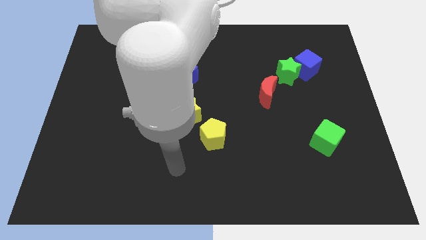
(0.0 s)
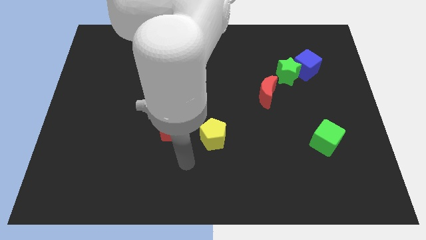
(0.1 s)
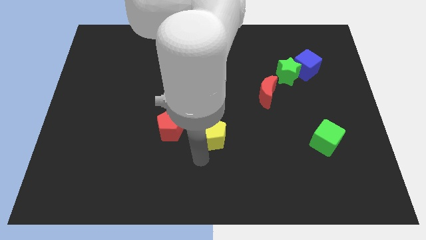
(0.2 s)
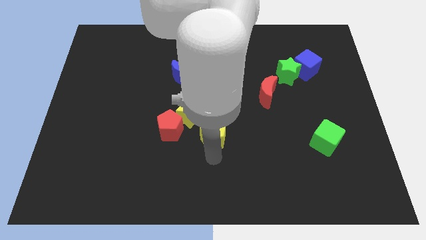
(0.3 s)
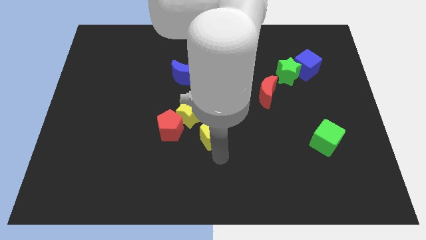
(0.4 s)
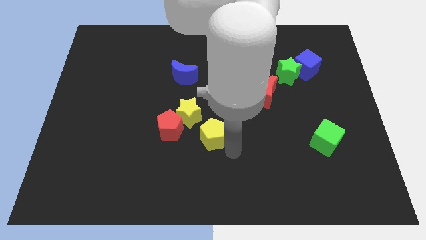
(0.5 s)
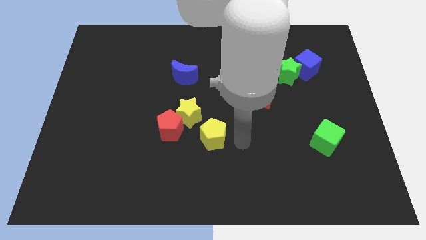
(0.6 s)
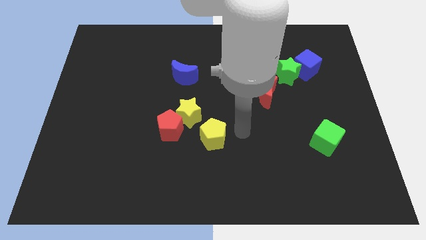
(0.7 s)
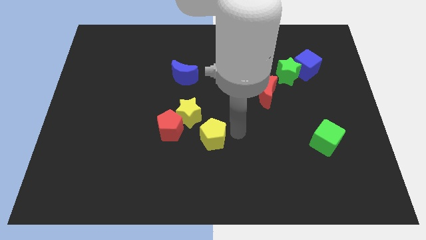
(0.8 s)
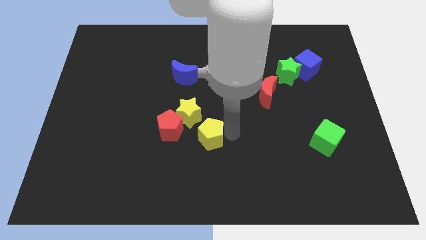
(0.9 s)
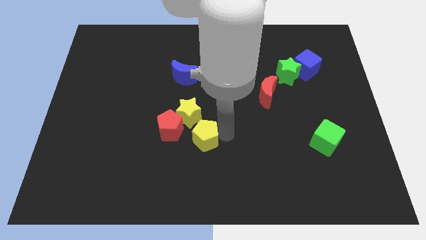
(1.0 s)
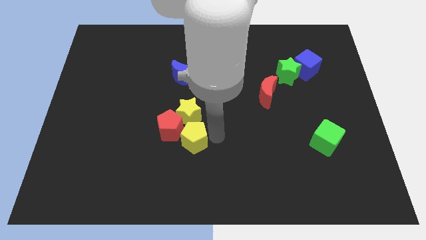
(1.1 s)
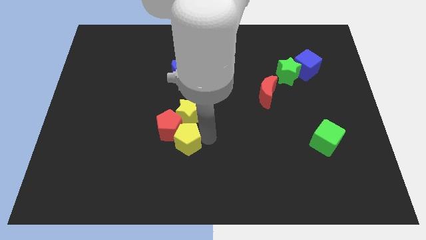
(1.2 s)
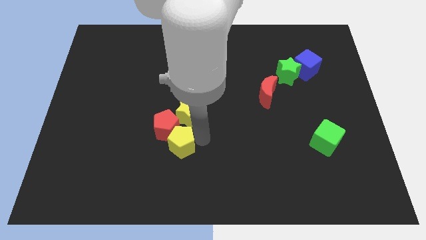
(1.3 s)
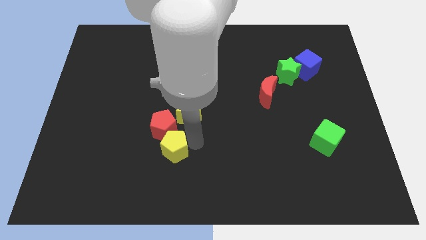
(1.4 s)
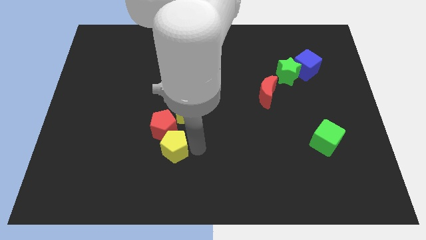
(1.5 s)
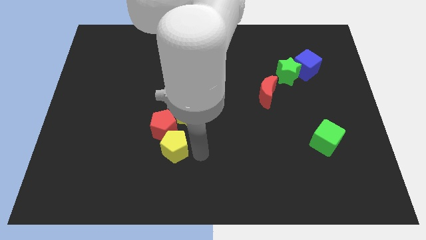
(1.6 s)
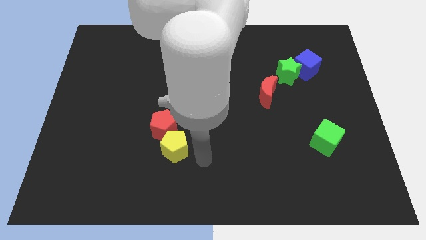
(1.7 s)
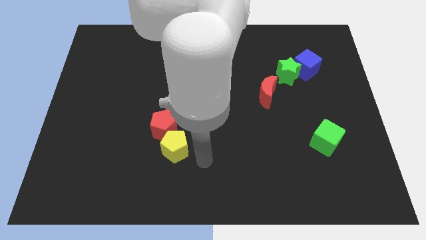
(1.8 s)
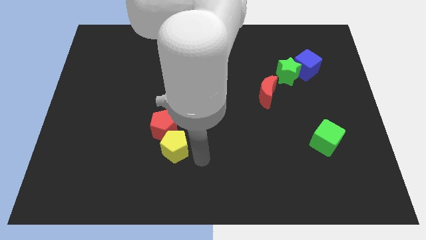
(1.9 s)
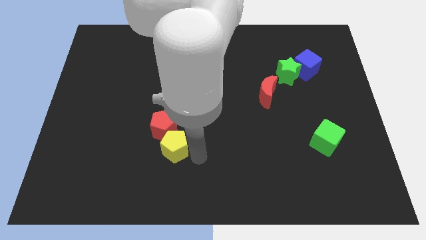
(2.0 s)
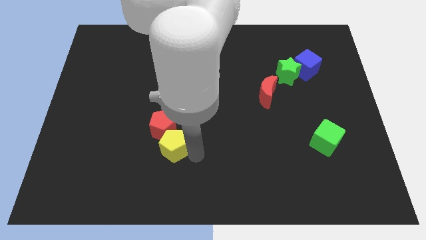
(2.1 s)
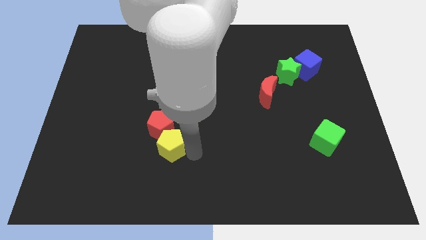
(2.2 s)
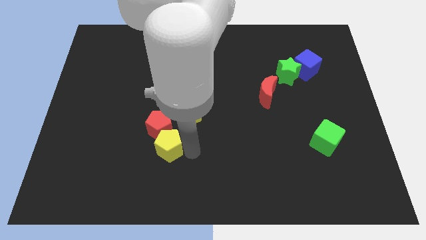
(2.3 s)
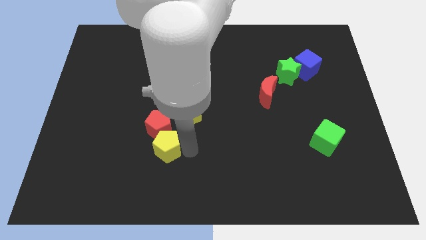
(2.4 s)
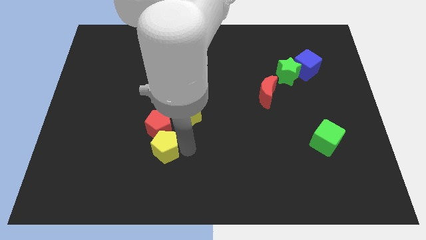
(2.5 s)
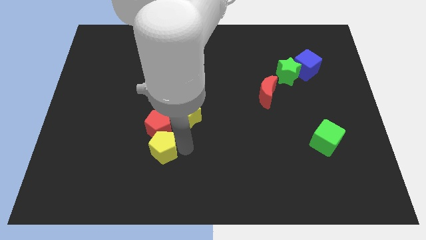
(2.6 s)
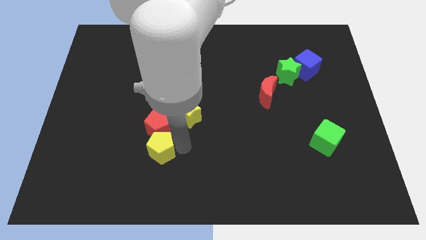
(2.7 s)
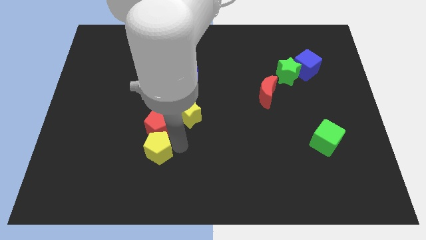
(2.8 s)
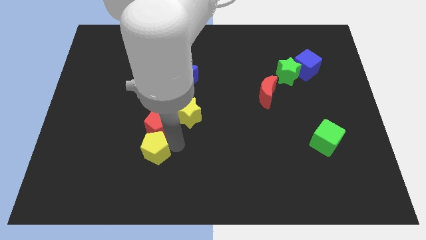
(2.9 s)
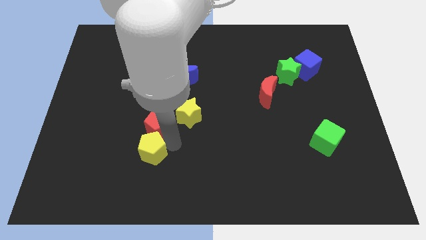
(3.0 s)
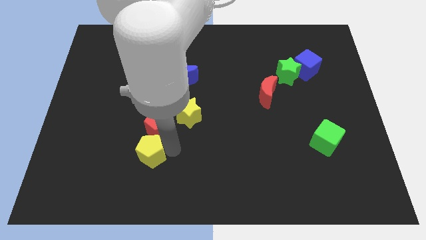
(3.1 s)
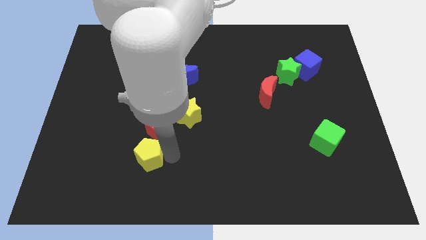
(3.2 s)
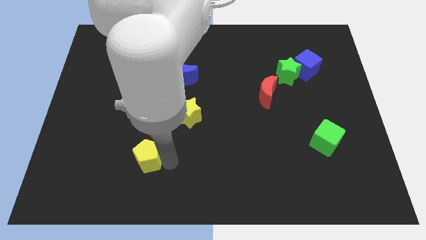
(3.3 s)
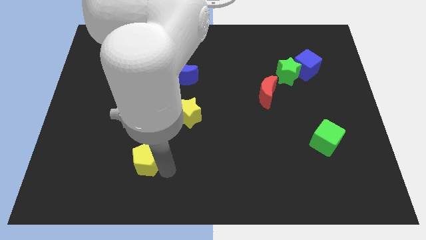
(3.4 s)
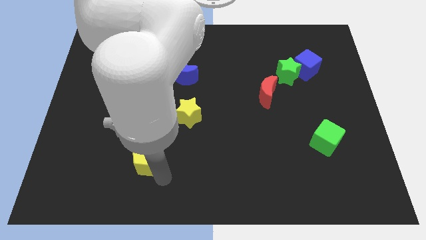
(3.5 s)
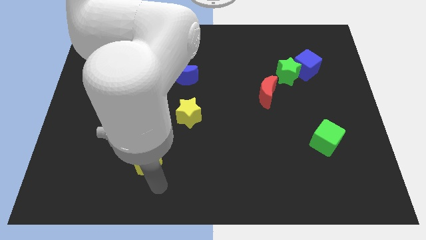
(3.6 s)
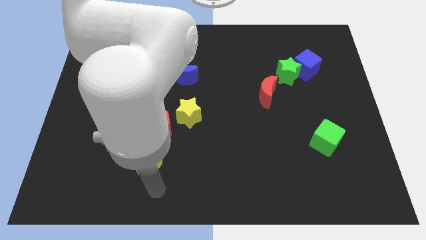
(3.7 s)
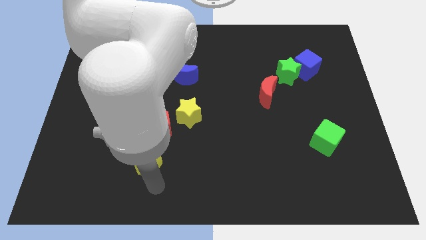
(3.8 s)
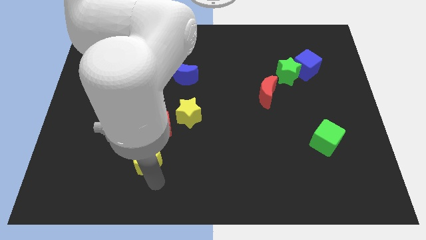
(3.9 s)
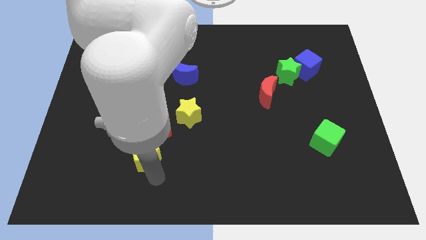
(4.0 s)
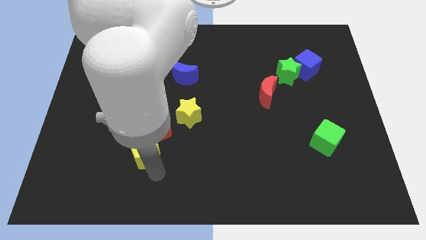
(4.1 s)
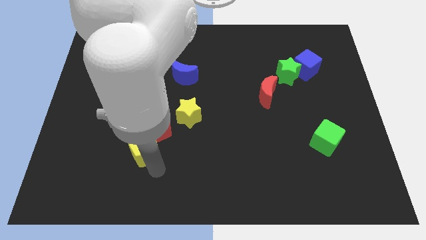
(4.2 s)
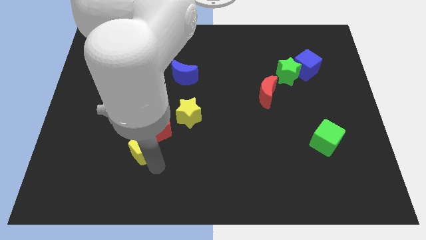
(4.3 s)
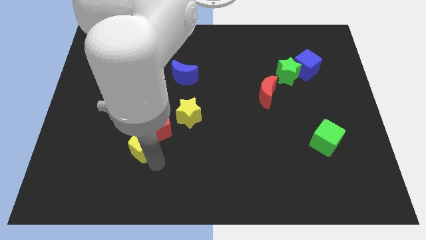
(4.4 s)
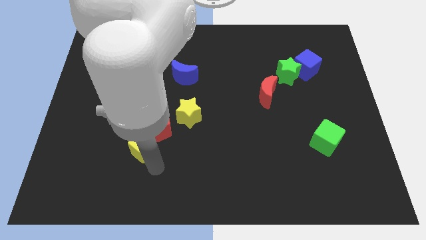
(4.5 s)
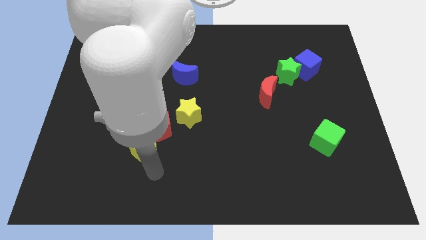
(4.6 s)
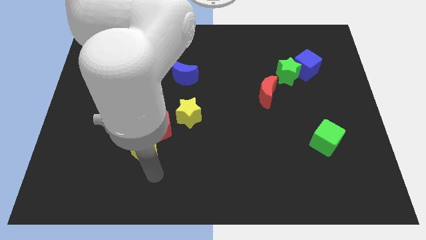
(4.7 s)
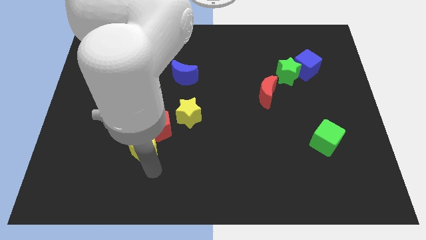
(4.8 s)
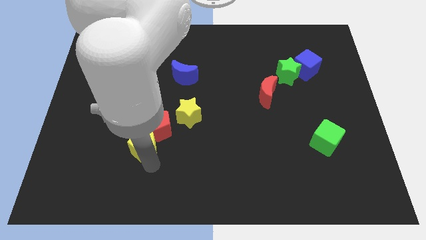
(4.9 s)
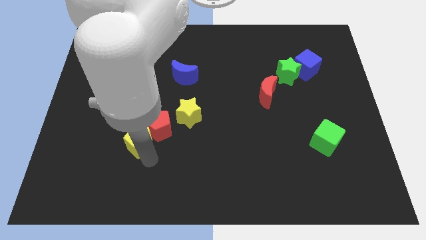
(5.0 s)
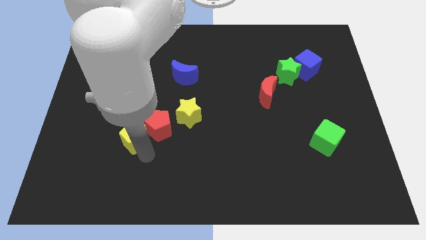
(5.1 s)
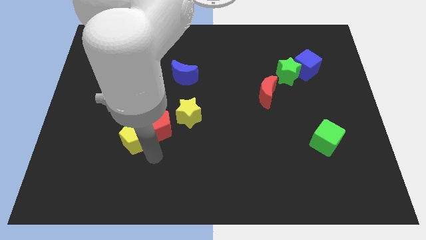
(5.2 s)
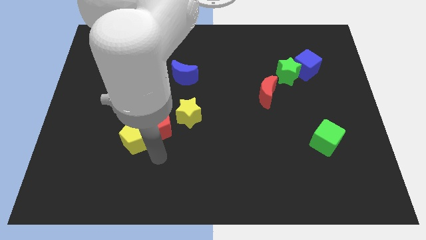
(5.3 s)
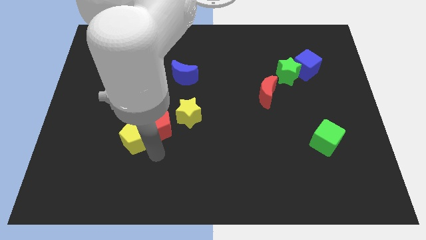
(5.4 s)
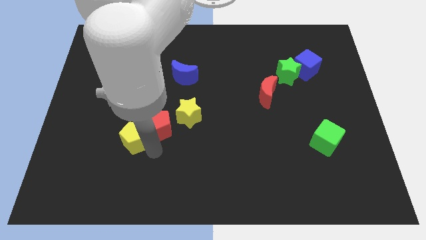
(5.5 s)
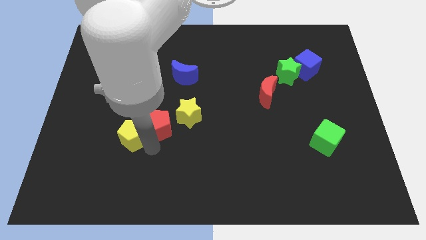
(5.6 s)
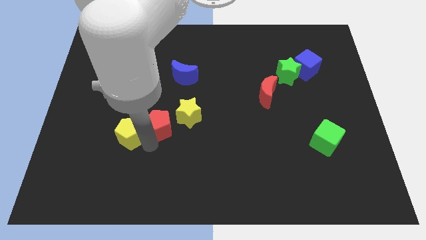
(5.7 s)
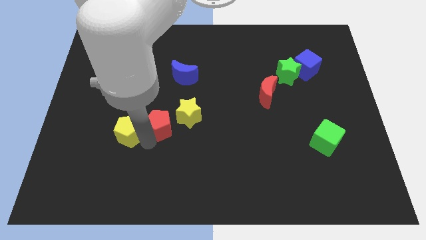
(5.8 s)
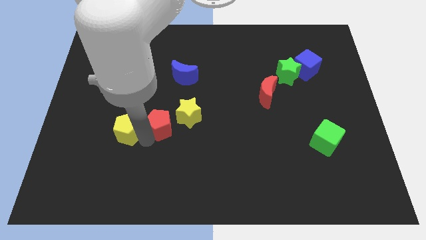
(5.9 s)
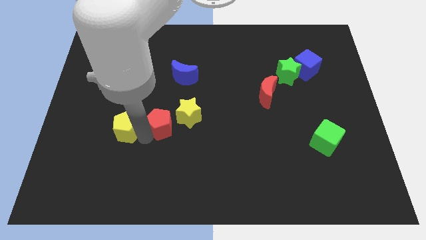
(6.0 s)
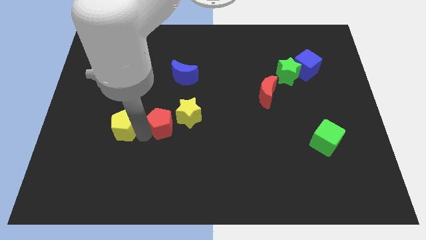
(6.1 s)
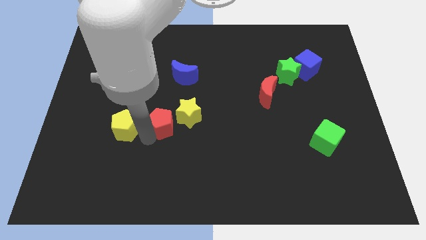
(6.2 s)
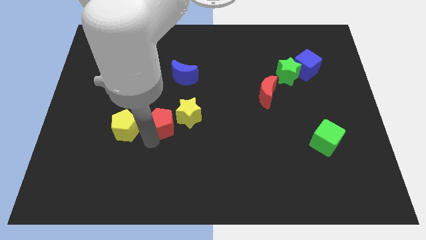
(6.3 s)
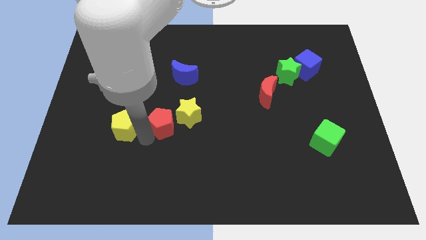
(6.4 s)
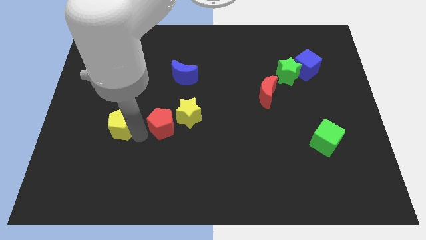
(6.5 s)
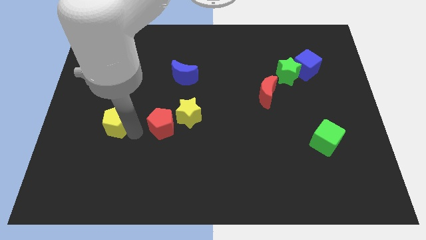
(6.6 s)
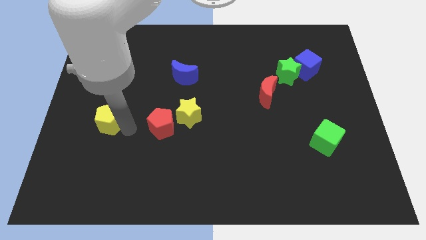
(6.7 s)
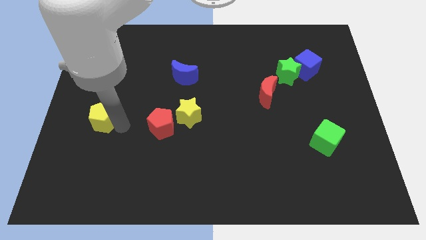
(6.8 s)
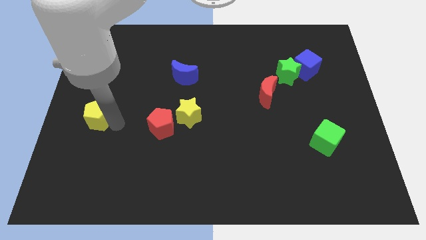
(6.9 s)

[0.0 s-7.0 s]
slide the yellow pentagon to the left side
